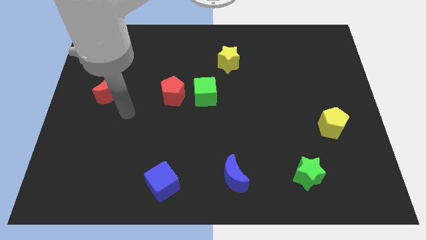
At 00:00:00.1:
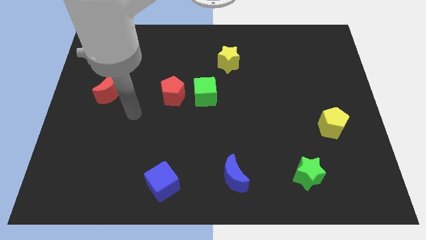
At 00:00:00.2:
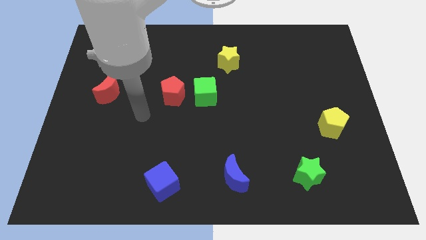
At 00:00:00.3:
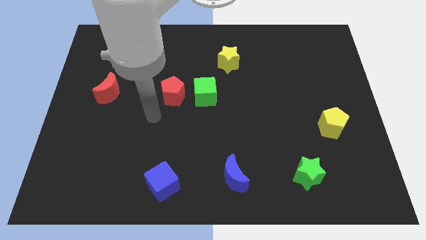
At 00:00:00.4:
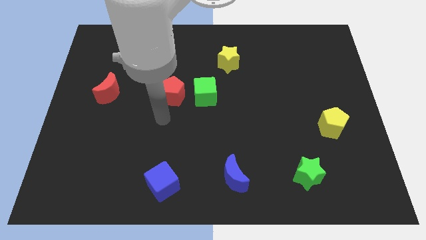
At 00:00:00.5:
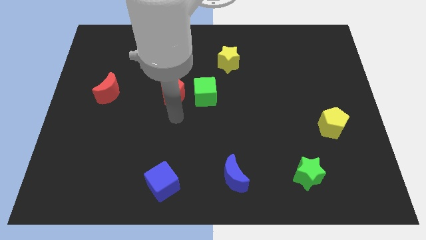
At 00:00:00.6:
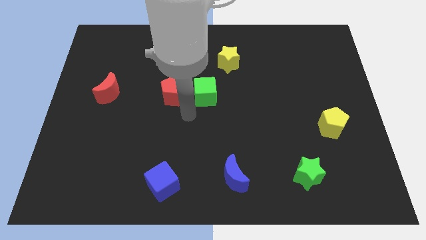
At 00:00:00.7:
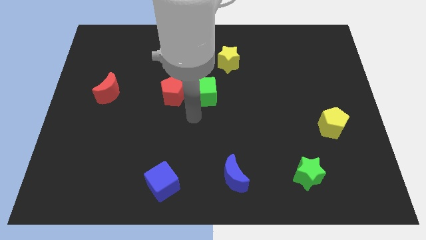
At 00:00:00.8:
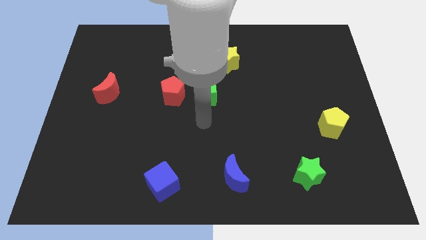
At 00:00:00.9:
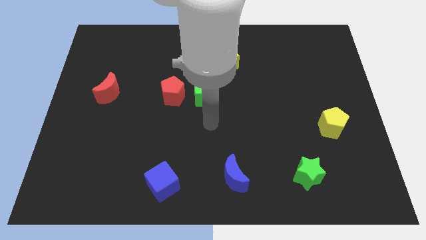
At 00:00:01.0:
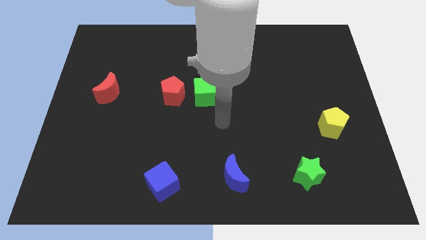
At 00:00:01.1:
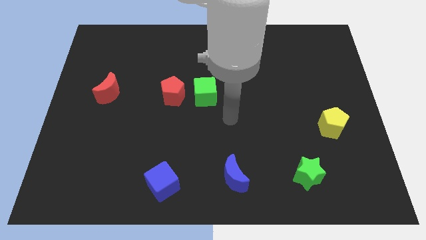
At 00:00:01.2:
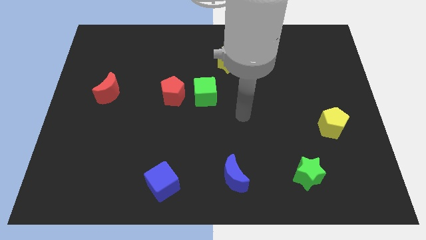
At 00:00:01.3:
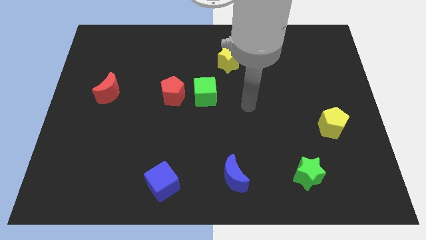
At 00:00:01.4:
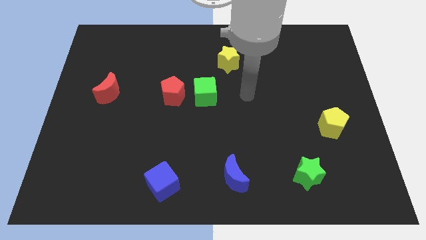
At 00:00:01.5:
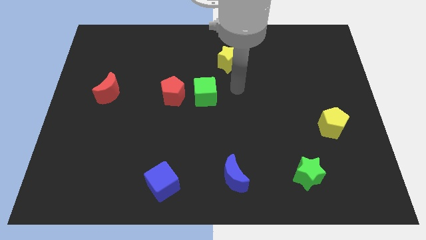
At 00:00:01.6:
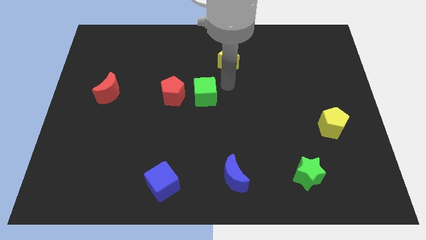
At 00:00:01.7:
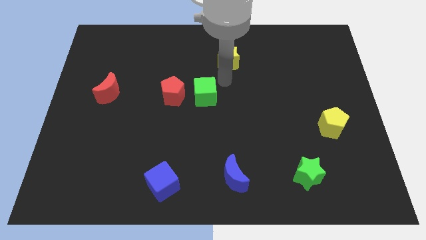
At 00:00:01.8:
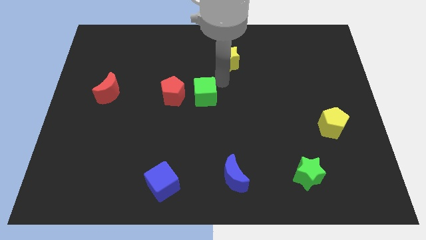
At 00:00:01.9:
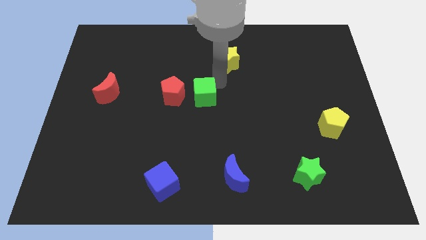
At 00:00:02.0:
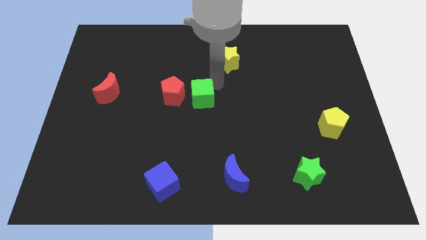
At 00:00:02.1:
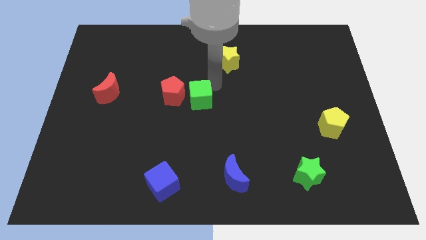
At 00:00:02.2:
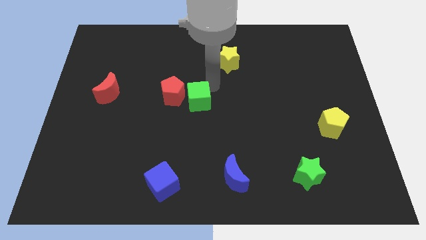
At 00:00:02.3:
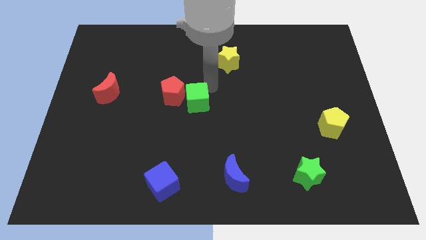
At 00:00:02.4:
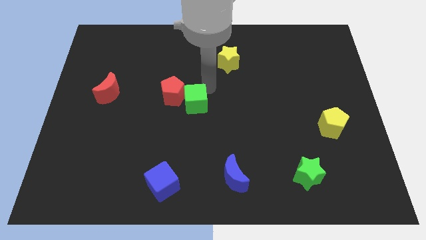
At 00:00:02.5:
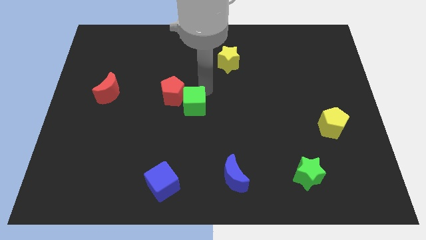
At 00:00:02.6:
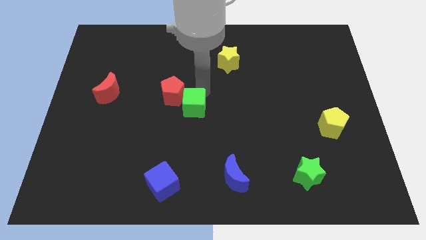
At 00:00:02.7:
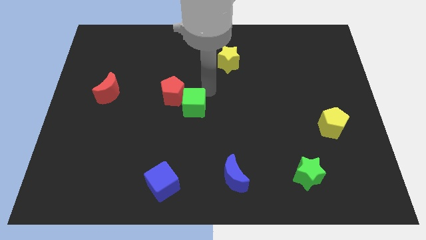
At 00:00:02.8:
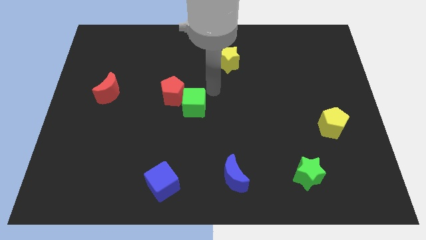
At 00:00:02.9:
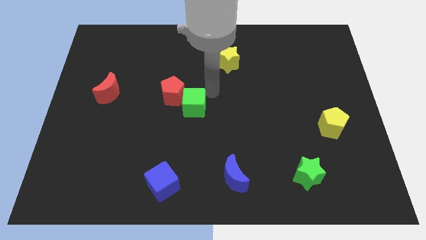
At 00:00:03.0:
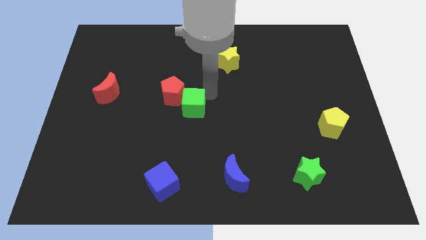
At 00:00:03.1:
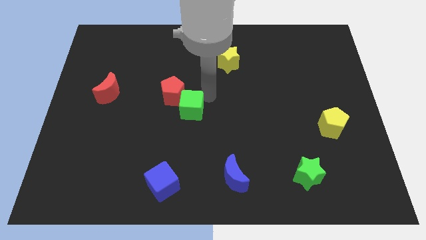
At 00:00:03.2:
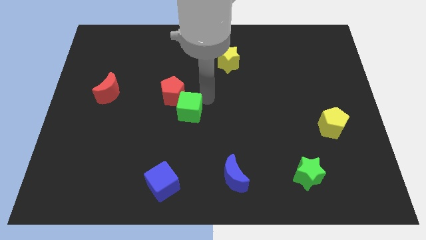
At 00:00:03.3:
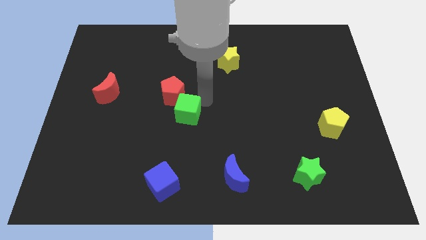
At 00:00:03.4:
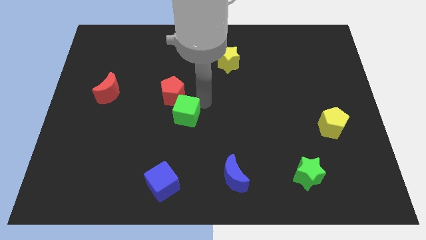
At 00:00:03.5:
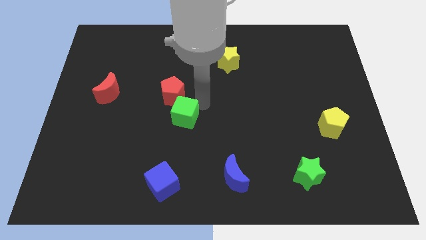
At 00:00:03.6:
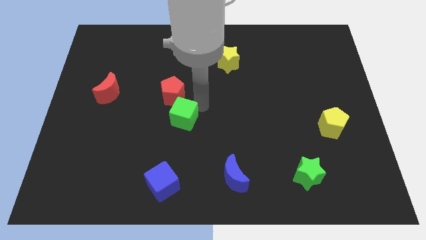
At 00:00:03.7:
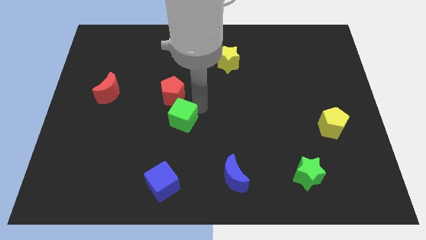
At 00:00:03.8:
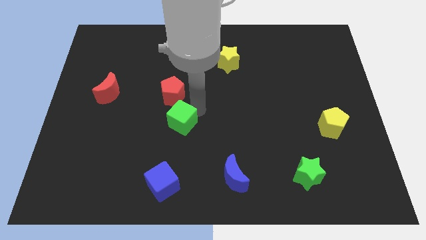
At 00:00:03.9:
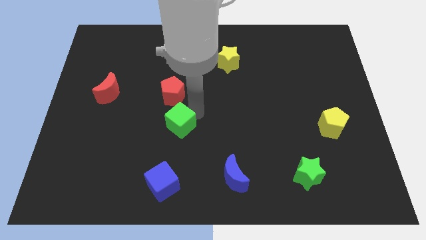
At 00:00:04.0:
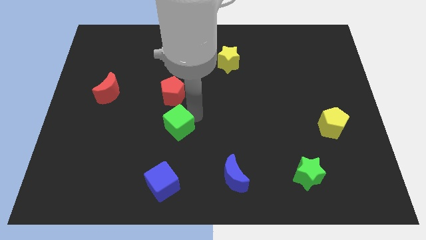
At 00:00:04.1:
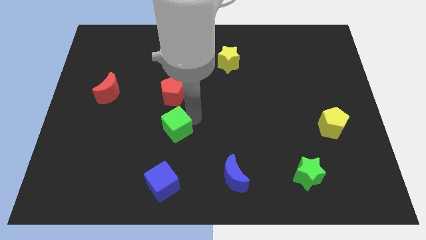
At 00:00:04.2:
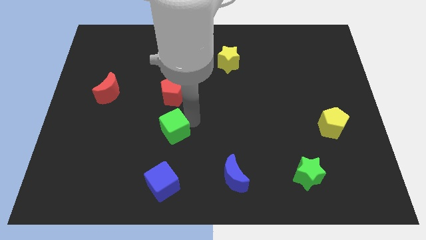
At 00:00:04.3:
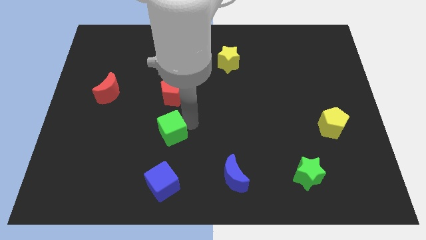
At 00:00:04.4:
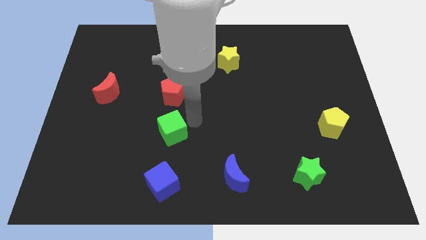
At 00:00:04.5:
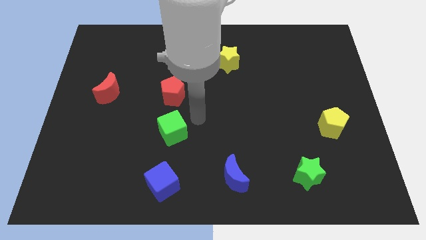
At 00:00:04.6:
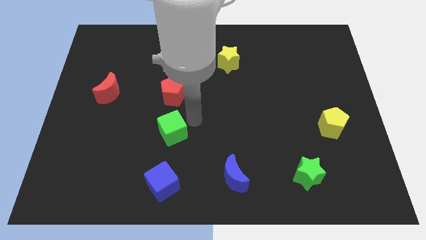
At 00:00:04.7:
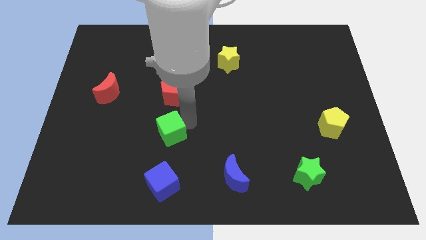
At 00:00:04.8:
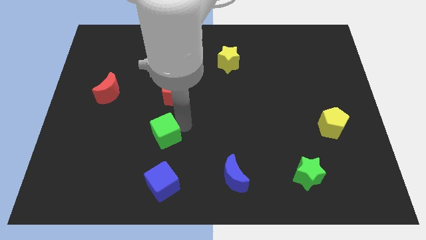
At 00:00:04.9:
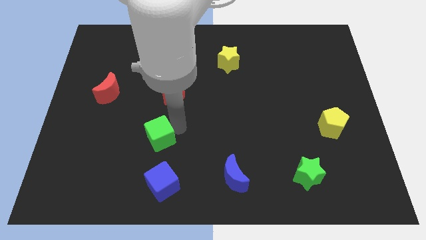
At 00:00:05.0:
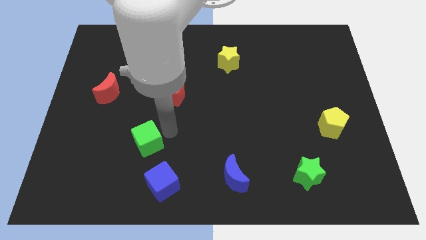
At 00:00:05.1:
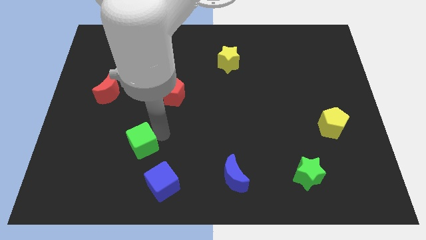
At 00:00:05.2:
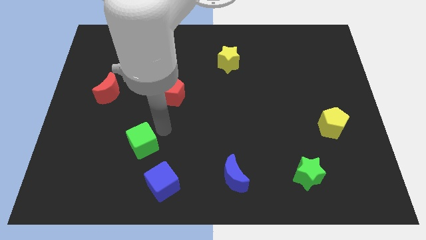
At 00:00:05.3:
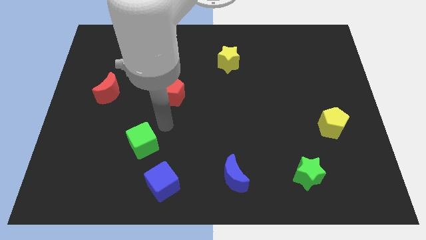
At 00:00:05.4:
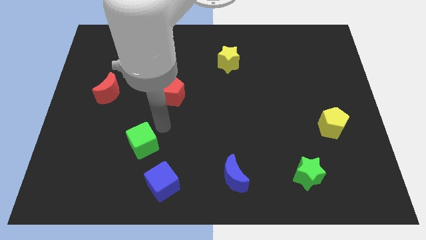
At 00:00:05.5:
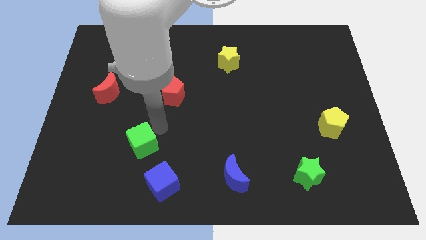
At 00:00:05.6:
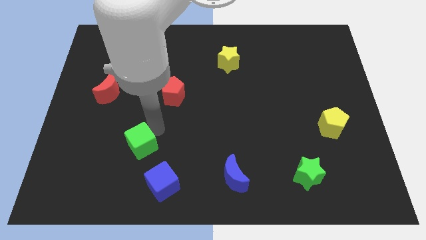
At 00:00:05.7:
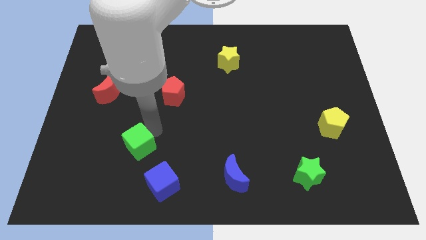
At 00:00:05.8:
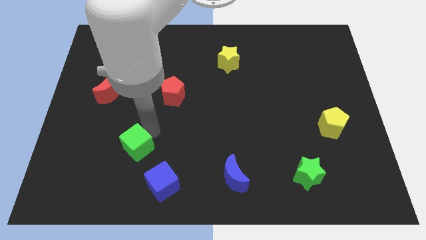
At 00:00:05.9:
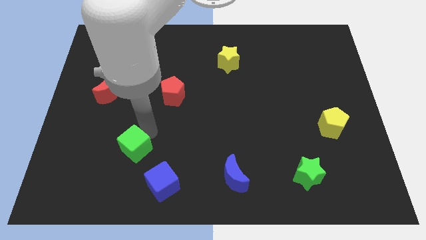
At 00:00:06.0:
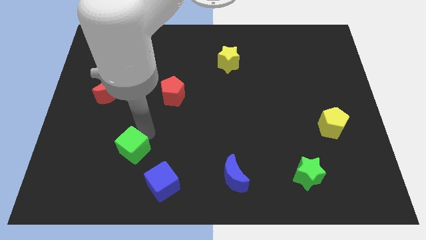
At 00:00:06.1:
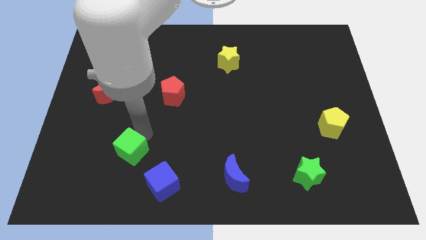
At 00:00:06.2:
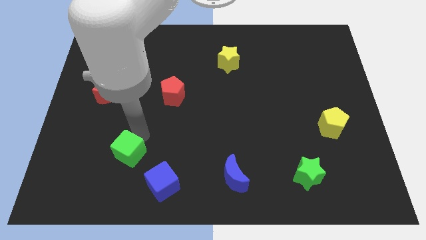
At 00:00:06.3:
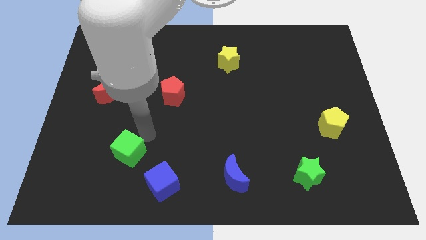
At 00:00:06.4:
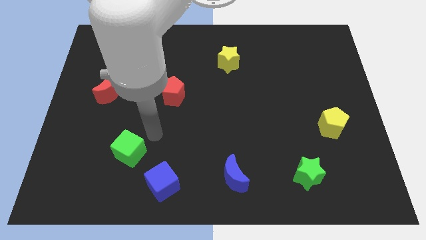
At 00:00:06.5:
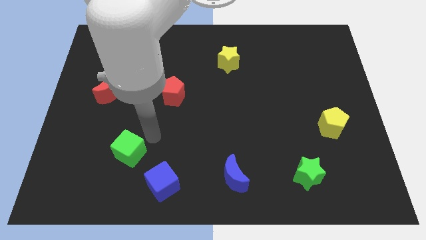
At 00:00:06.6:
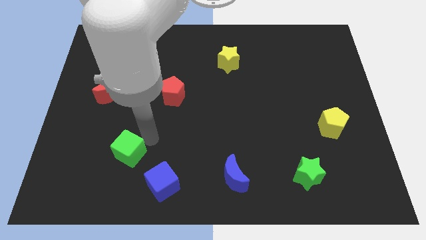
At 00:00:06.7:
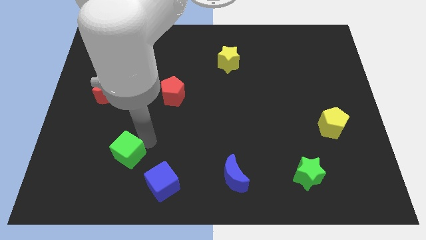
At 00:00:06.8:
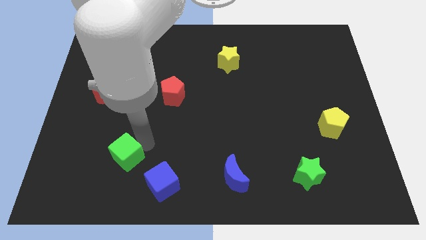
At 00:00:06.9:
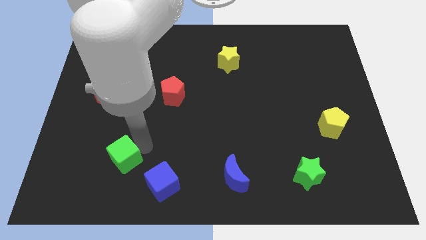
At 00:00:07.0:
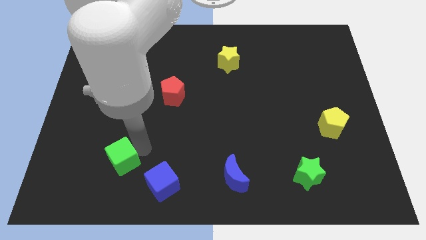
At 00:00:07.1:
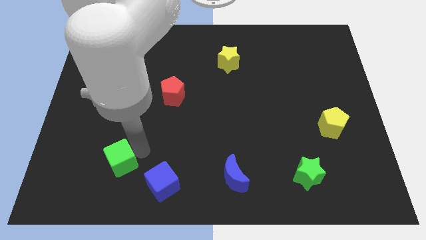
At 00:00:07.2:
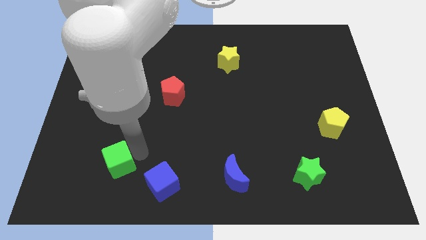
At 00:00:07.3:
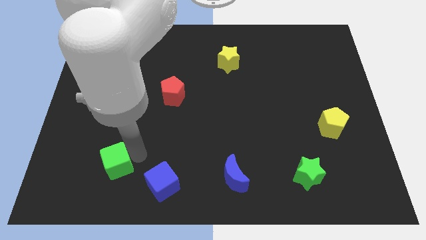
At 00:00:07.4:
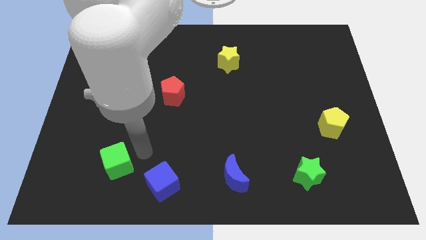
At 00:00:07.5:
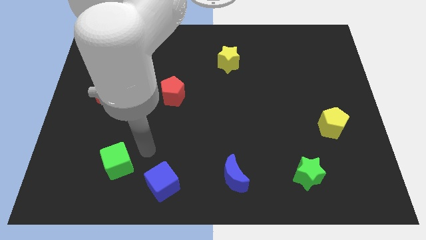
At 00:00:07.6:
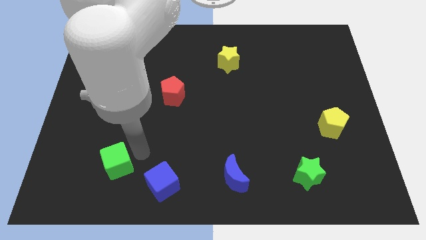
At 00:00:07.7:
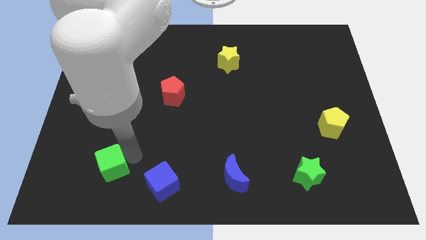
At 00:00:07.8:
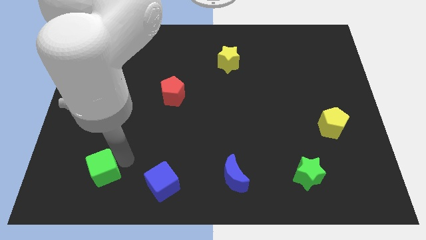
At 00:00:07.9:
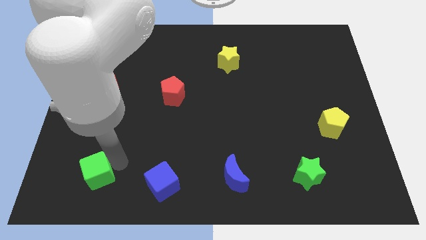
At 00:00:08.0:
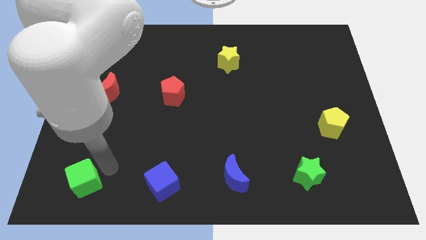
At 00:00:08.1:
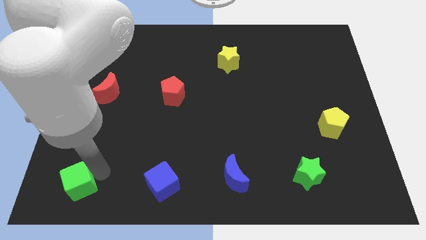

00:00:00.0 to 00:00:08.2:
push the green cube to the bottom left
